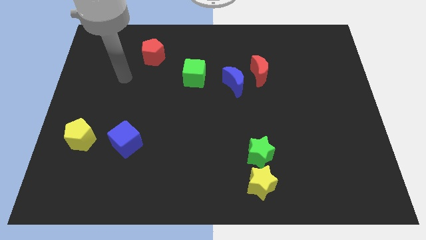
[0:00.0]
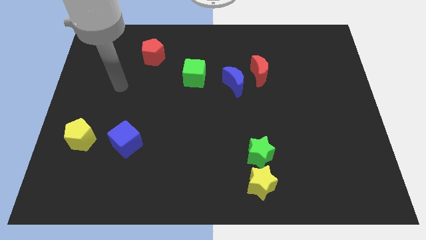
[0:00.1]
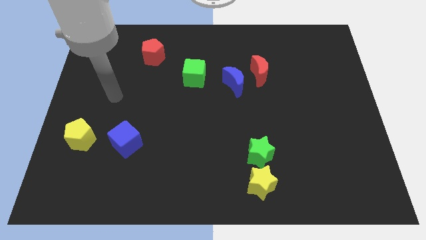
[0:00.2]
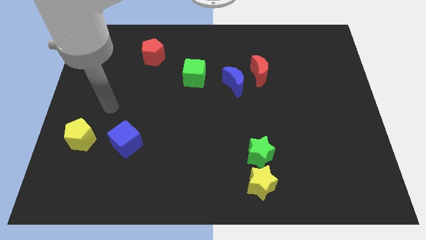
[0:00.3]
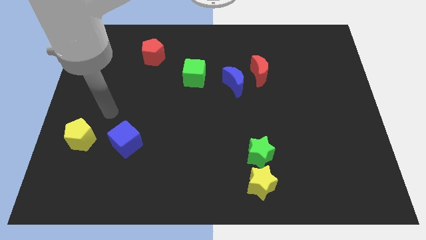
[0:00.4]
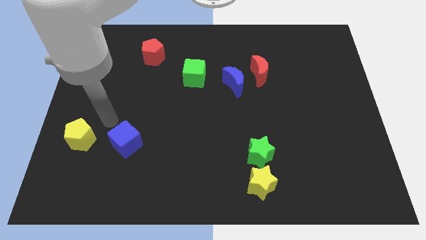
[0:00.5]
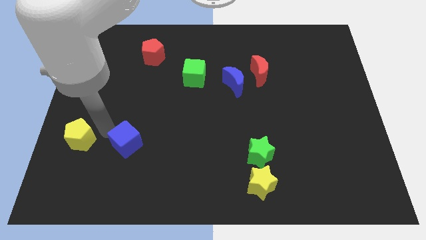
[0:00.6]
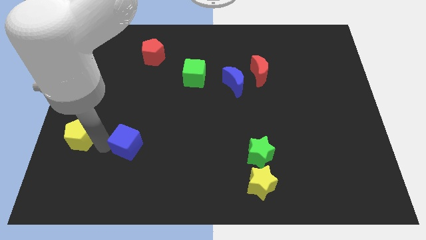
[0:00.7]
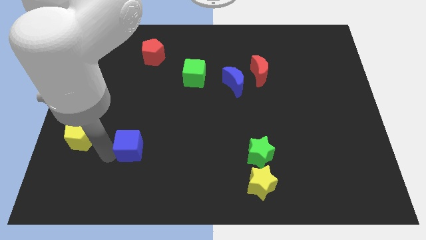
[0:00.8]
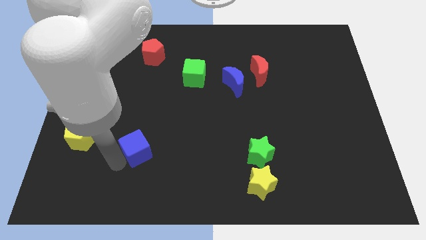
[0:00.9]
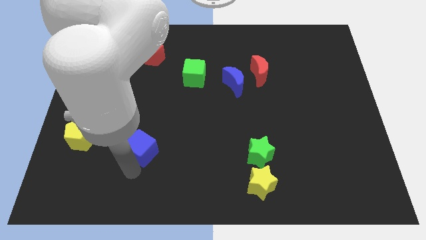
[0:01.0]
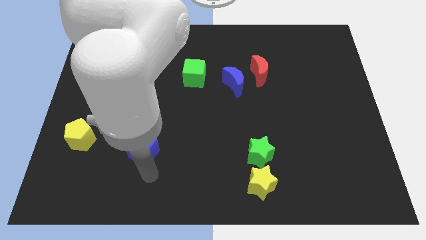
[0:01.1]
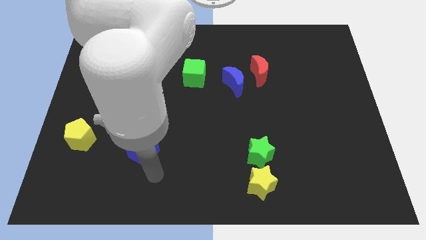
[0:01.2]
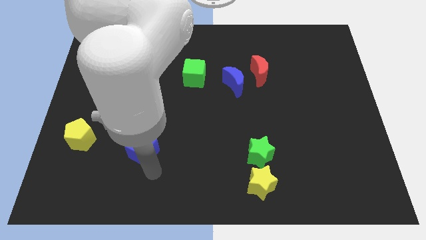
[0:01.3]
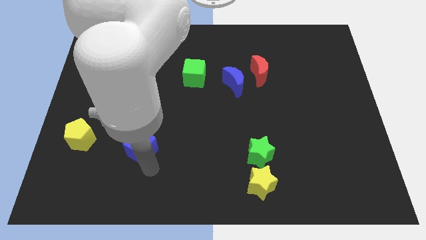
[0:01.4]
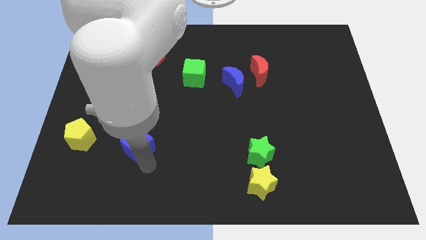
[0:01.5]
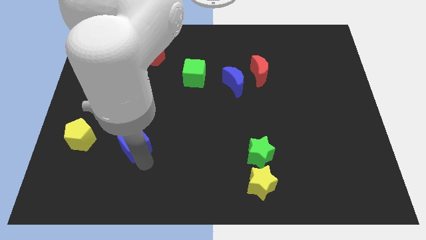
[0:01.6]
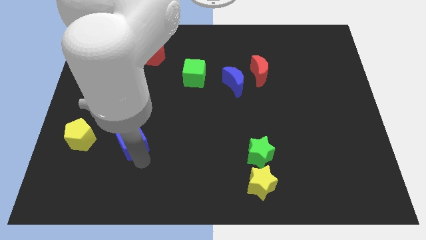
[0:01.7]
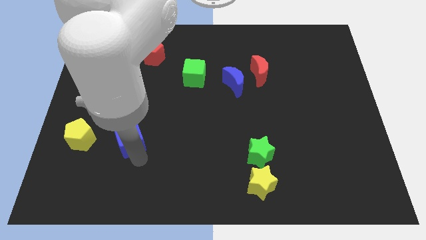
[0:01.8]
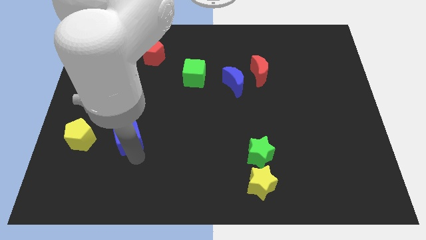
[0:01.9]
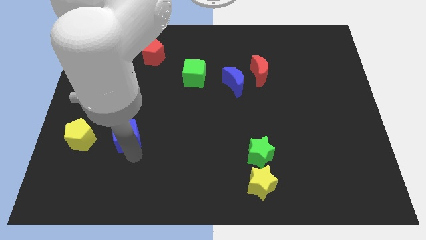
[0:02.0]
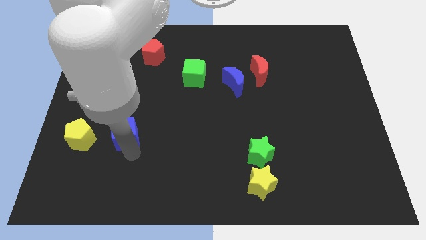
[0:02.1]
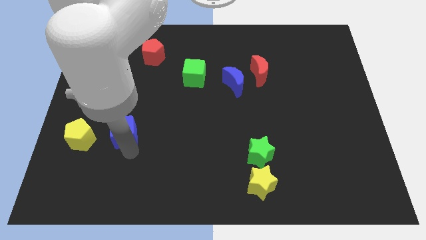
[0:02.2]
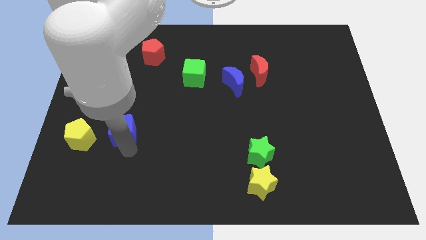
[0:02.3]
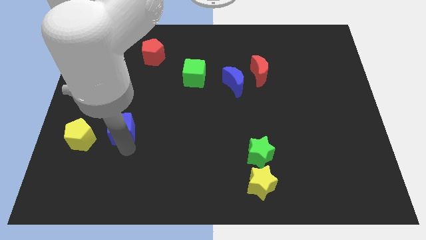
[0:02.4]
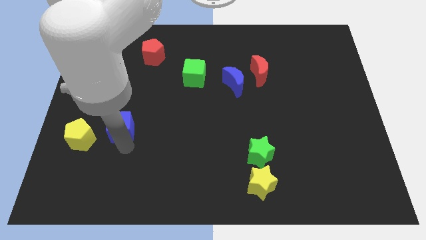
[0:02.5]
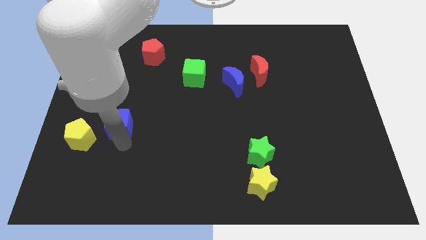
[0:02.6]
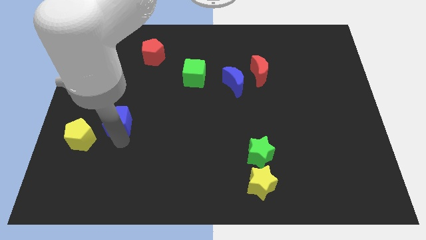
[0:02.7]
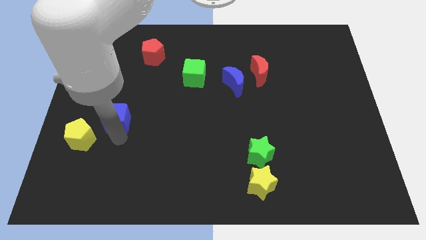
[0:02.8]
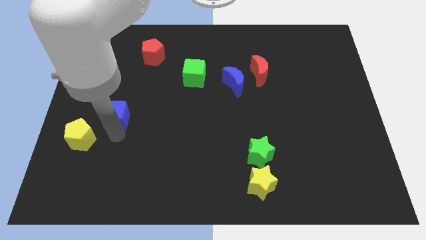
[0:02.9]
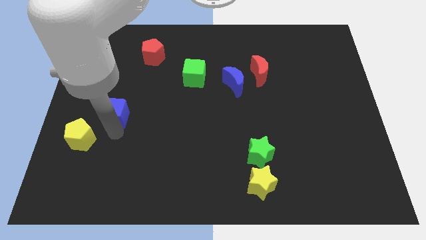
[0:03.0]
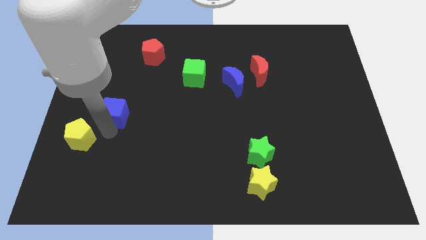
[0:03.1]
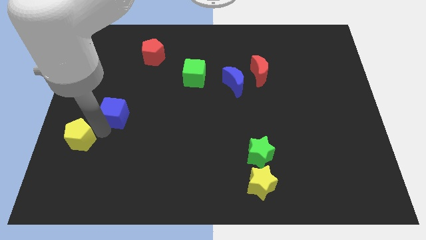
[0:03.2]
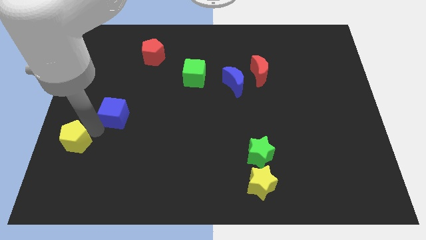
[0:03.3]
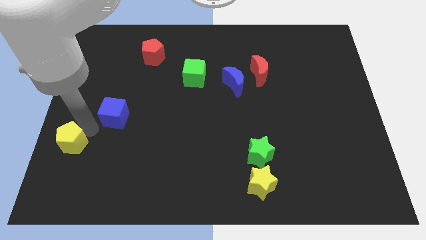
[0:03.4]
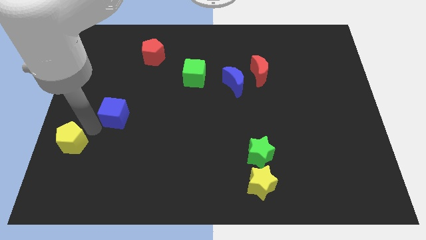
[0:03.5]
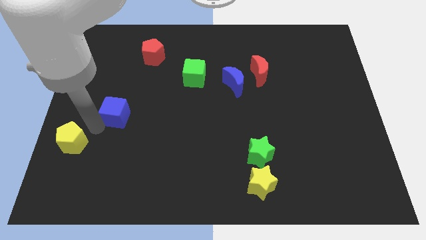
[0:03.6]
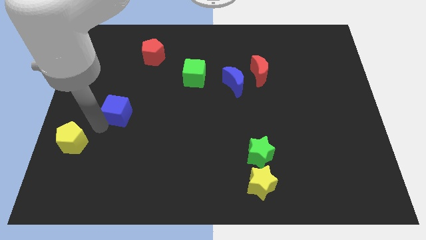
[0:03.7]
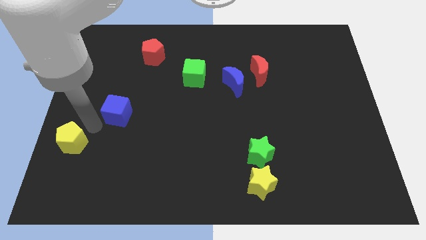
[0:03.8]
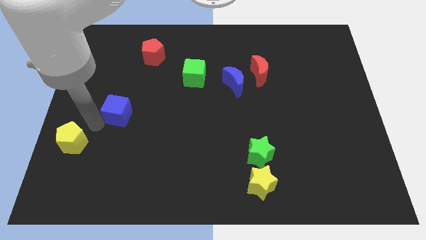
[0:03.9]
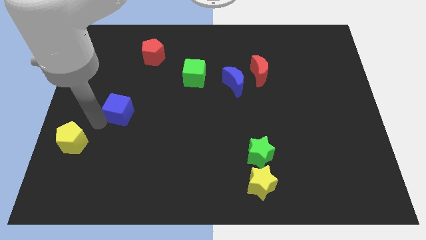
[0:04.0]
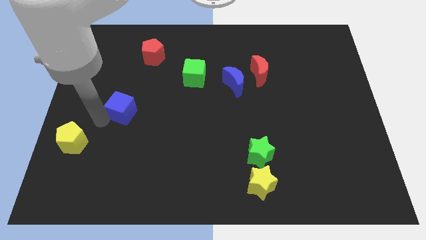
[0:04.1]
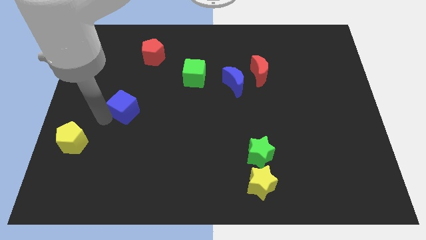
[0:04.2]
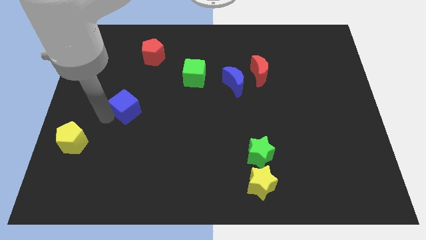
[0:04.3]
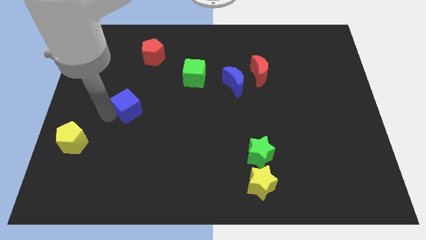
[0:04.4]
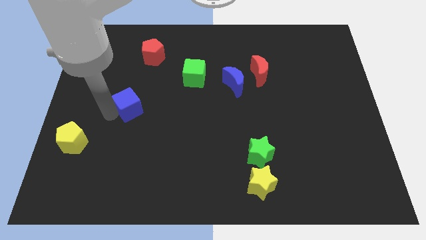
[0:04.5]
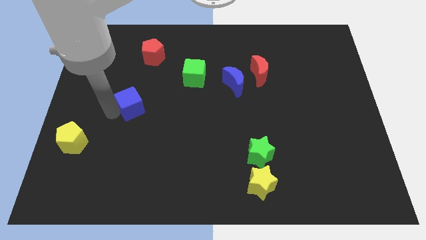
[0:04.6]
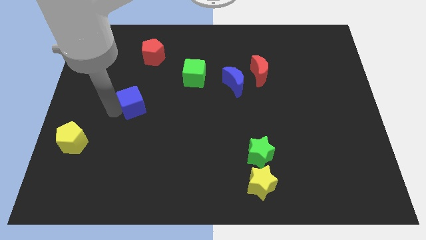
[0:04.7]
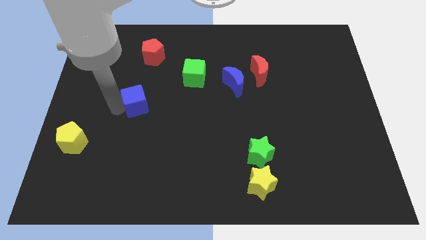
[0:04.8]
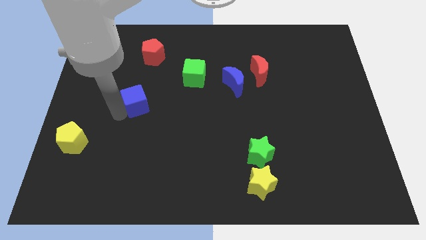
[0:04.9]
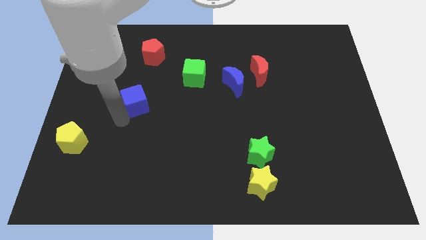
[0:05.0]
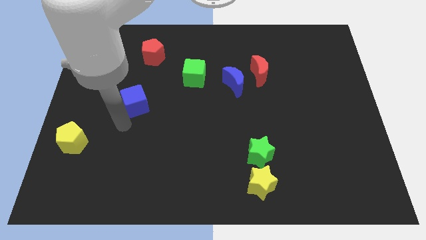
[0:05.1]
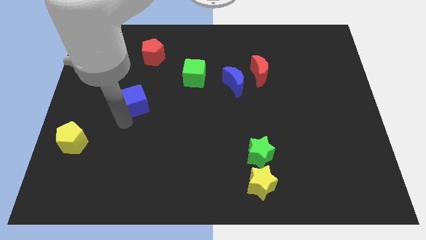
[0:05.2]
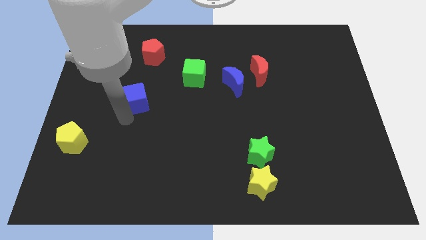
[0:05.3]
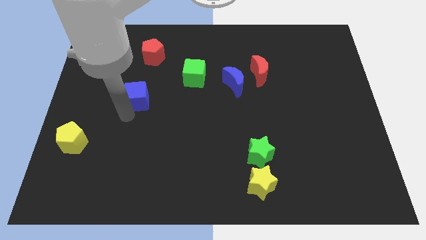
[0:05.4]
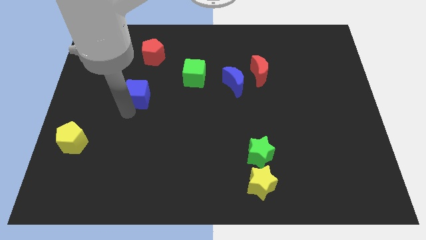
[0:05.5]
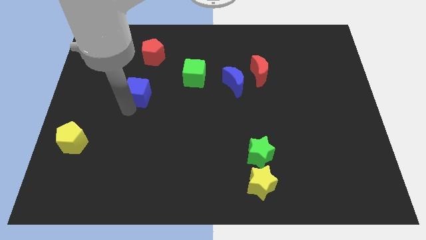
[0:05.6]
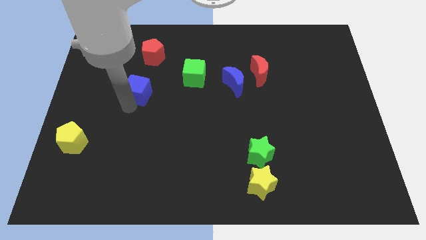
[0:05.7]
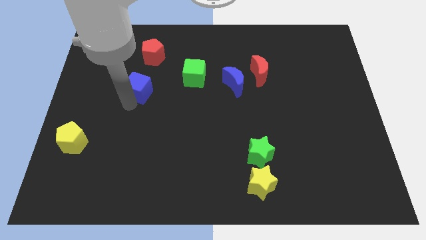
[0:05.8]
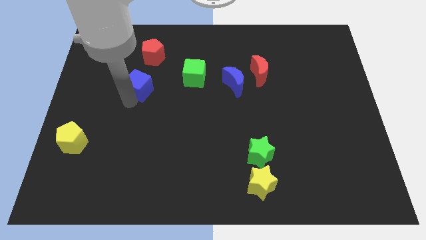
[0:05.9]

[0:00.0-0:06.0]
slide the blue cube just left of the green cube

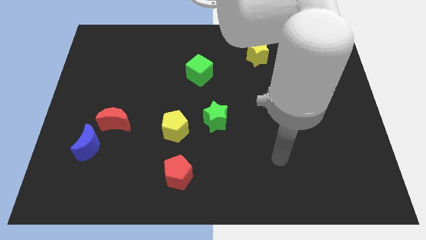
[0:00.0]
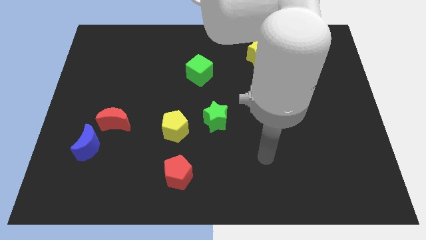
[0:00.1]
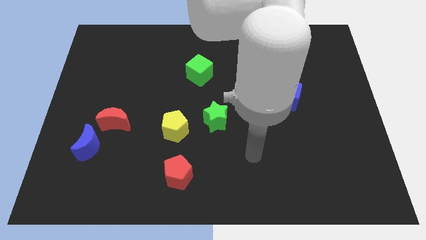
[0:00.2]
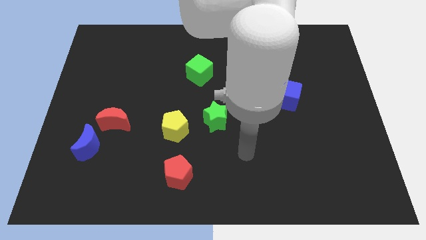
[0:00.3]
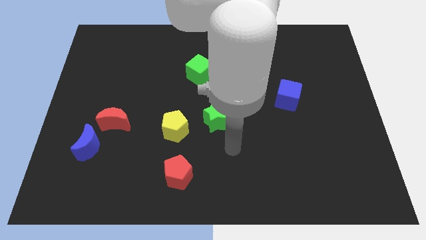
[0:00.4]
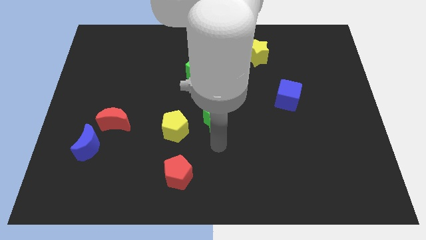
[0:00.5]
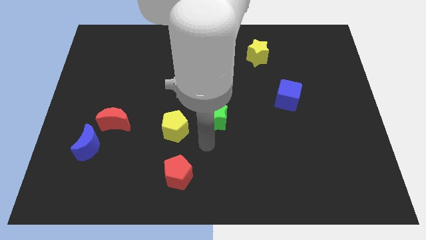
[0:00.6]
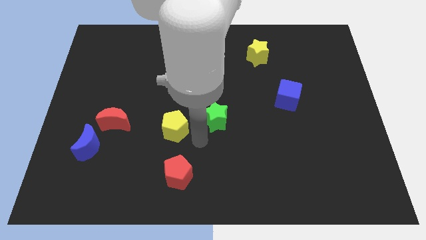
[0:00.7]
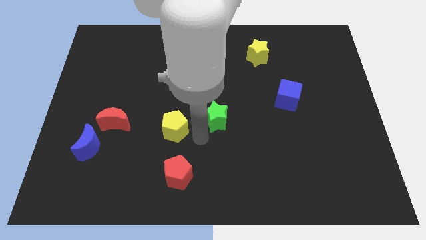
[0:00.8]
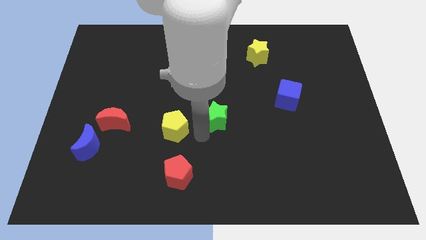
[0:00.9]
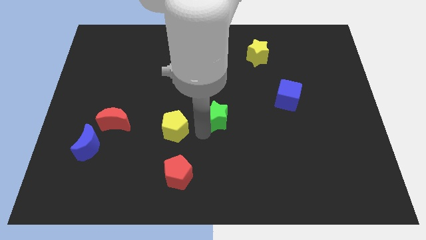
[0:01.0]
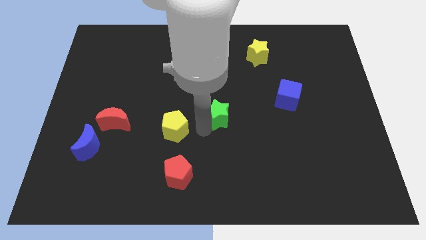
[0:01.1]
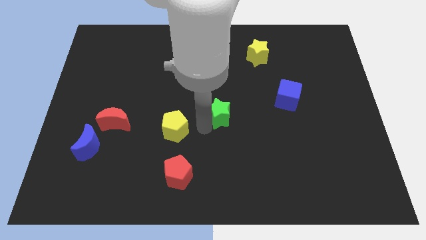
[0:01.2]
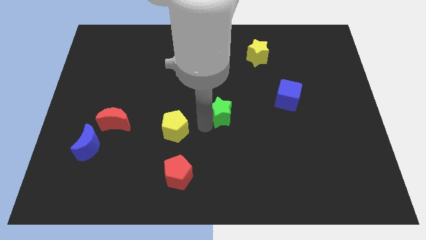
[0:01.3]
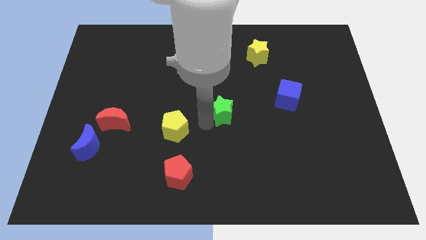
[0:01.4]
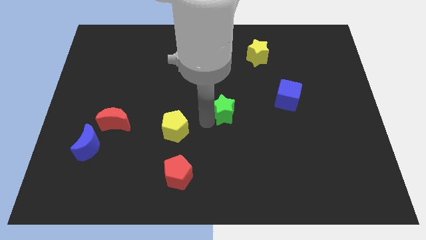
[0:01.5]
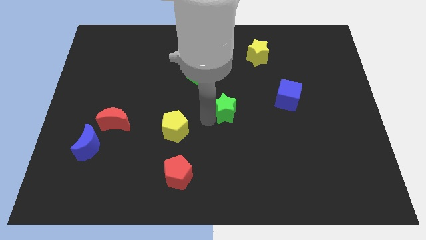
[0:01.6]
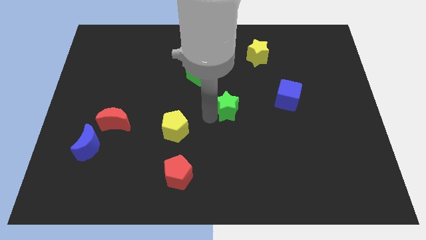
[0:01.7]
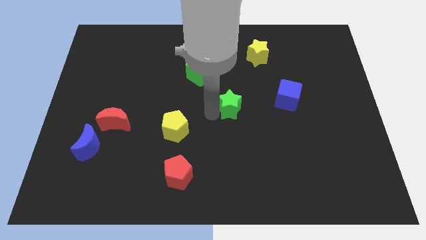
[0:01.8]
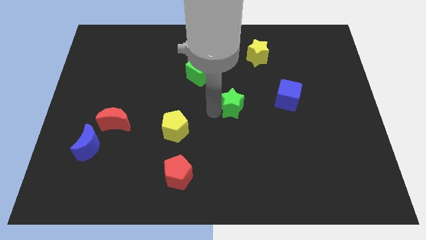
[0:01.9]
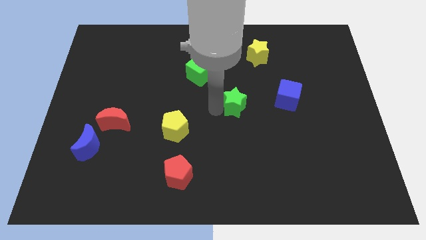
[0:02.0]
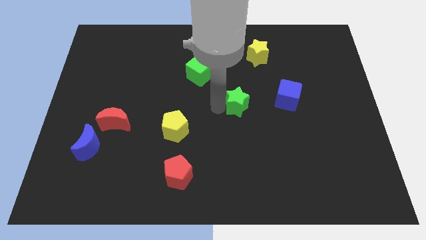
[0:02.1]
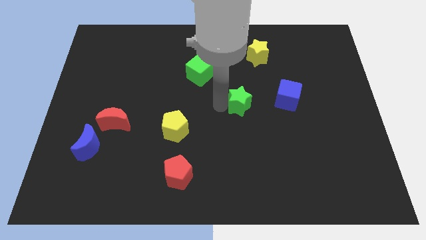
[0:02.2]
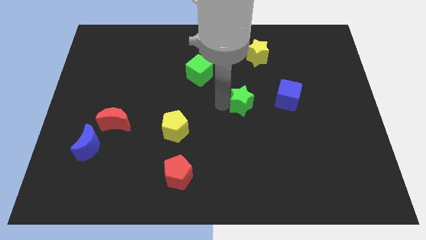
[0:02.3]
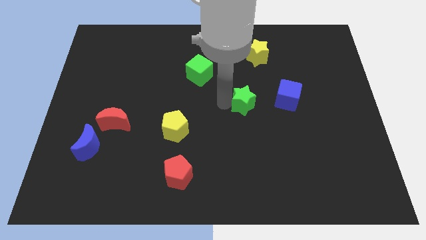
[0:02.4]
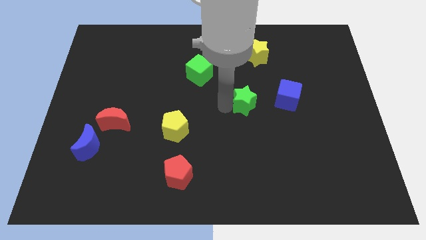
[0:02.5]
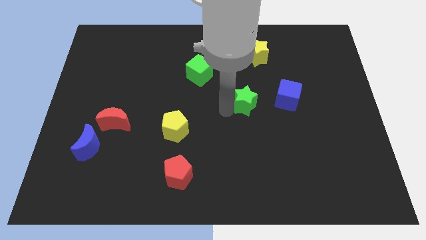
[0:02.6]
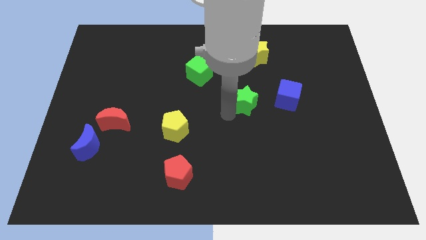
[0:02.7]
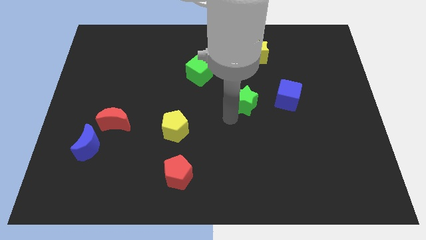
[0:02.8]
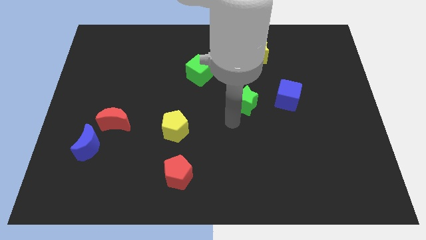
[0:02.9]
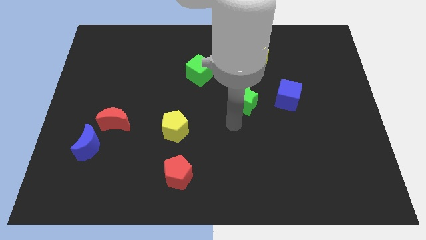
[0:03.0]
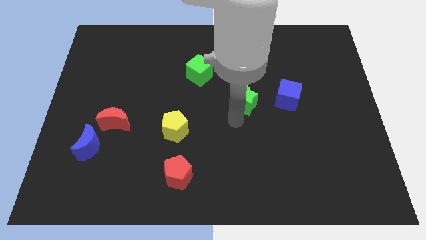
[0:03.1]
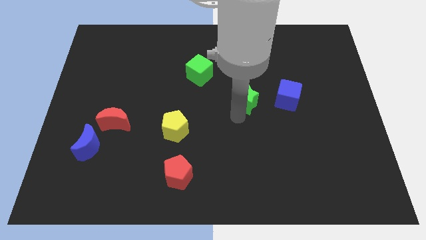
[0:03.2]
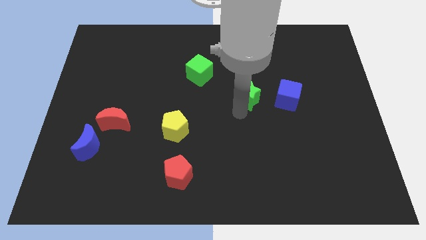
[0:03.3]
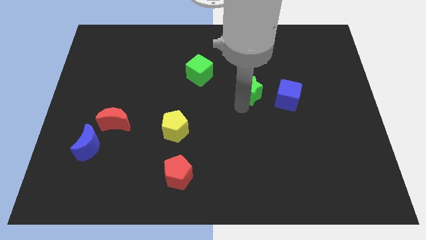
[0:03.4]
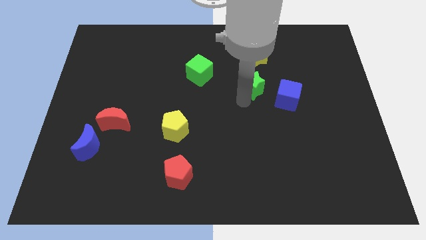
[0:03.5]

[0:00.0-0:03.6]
move the green star diagonally up and to the left of the blue cube
